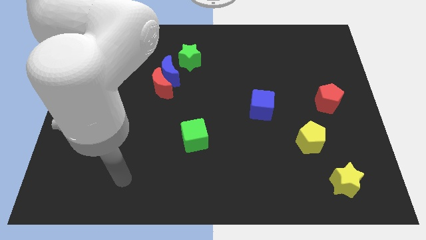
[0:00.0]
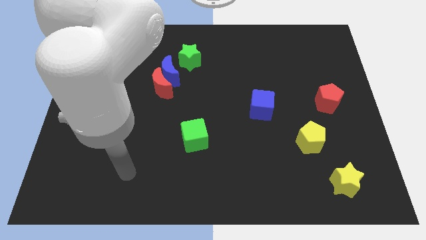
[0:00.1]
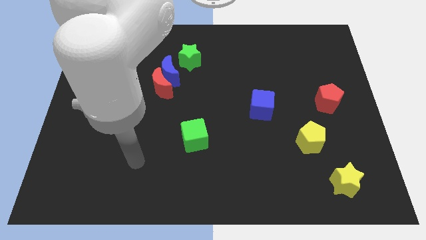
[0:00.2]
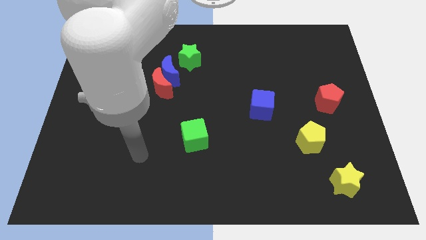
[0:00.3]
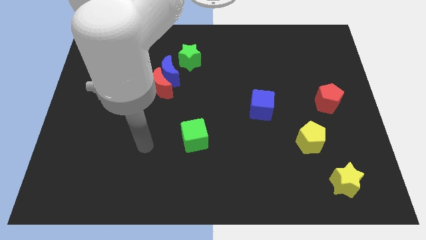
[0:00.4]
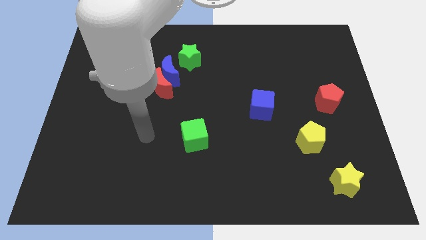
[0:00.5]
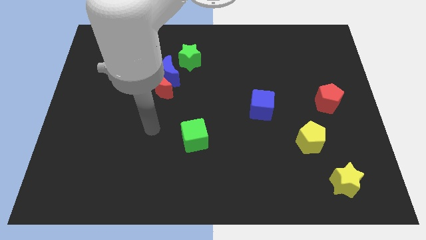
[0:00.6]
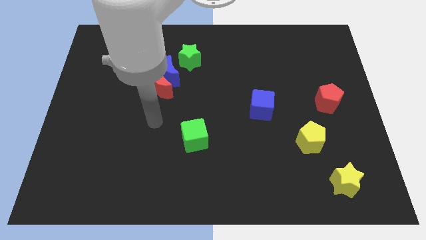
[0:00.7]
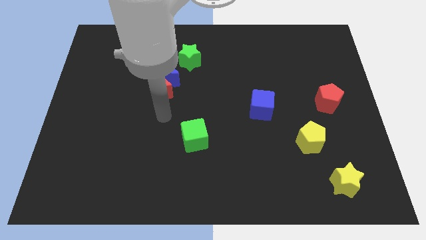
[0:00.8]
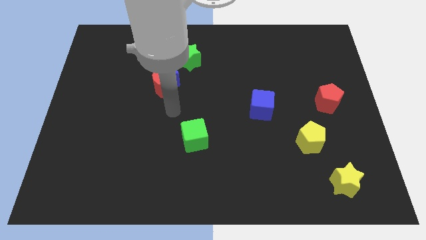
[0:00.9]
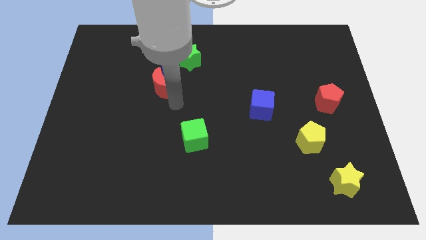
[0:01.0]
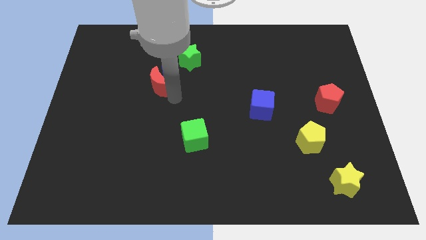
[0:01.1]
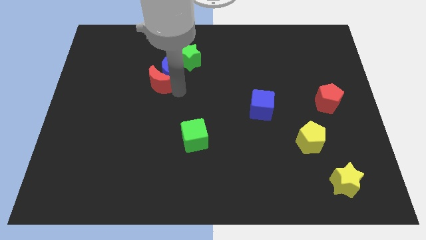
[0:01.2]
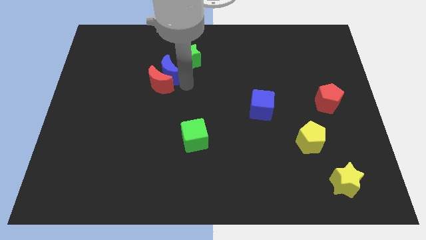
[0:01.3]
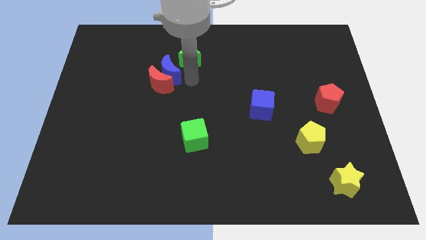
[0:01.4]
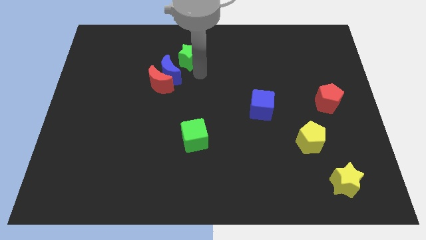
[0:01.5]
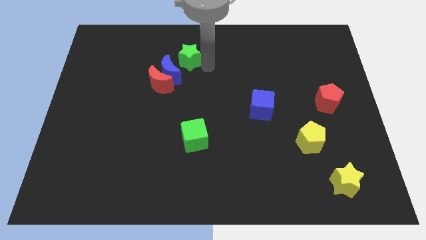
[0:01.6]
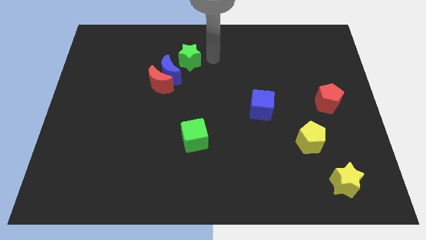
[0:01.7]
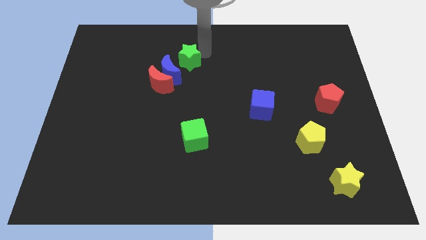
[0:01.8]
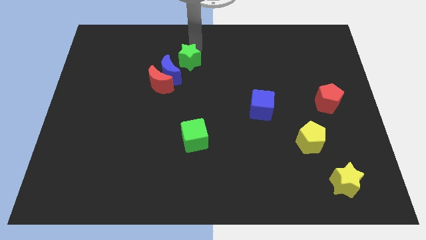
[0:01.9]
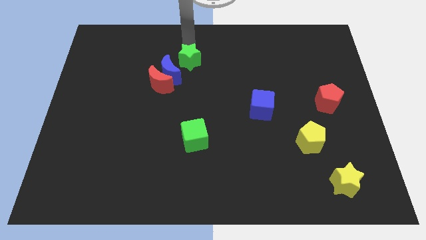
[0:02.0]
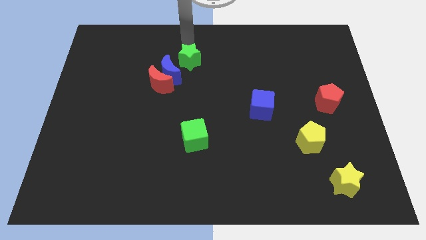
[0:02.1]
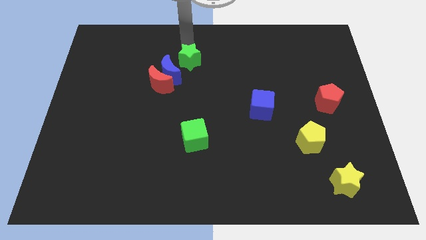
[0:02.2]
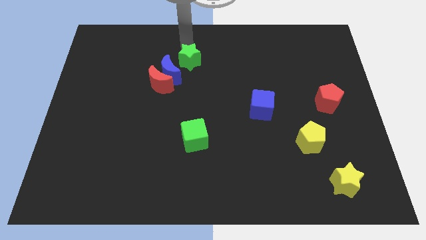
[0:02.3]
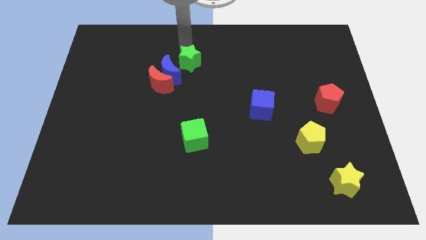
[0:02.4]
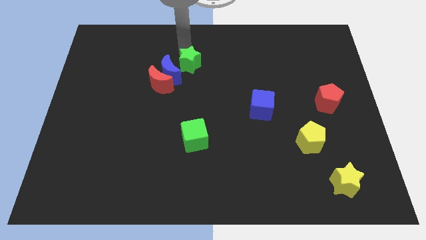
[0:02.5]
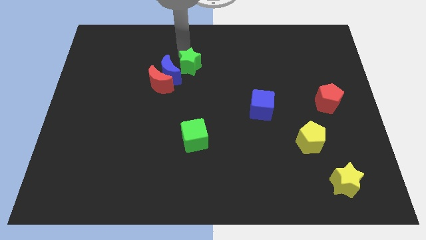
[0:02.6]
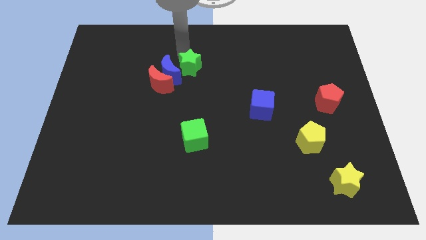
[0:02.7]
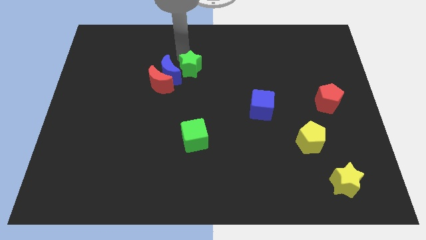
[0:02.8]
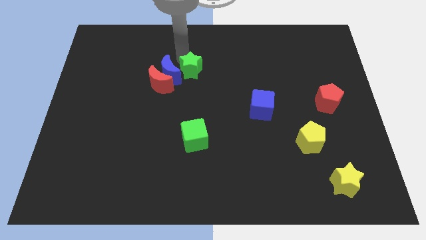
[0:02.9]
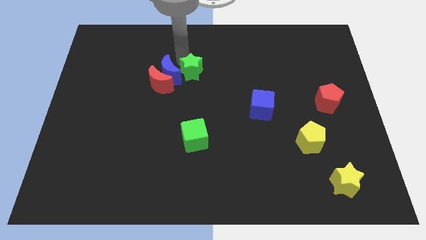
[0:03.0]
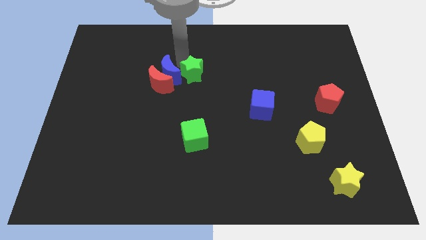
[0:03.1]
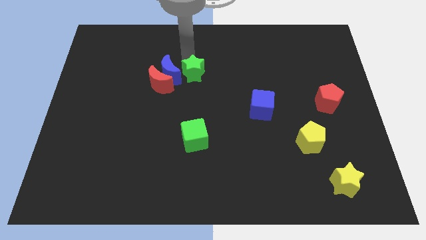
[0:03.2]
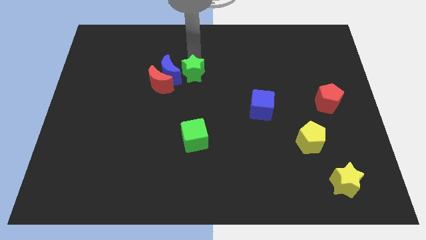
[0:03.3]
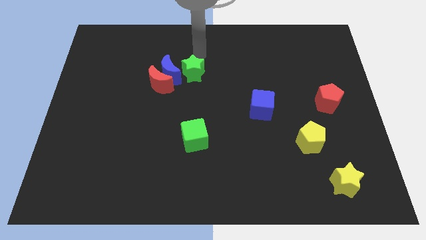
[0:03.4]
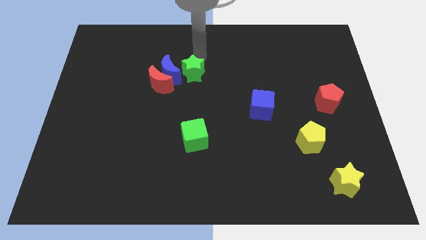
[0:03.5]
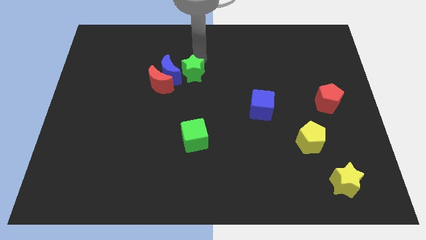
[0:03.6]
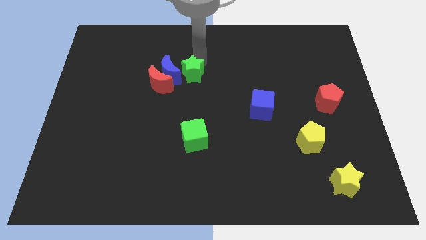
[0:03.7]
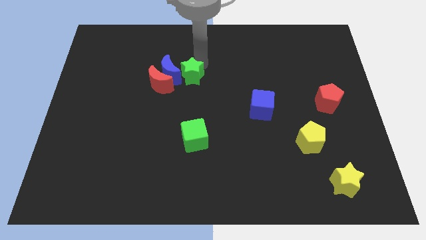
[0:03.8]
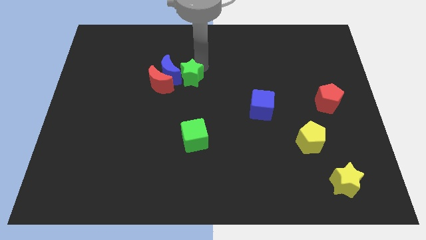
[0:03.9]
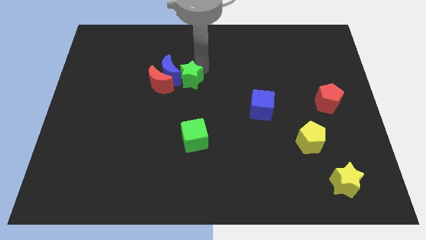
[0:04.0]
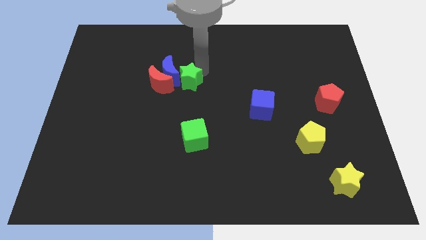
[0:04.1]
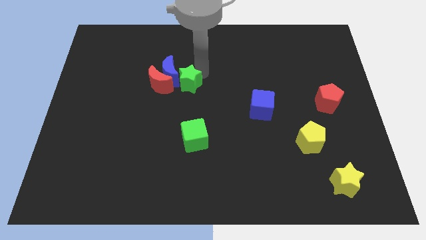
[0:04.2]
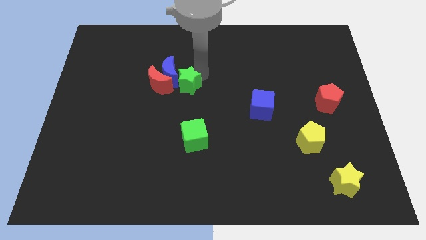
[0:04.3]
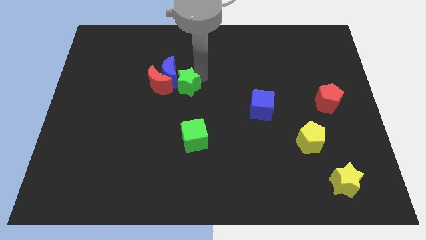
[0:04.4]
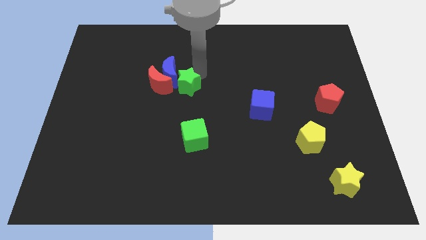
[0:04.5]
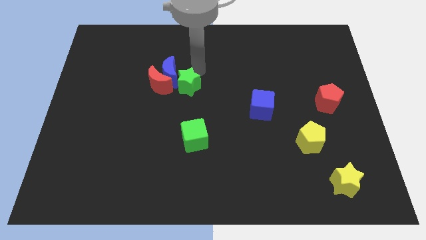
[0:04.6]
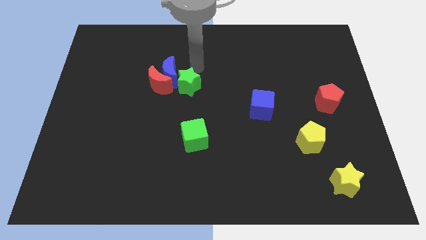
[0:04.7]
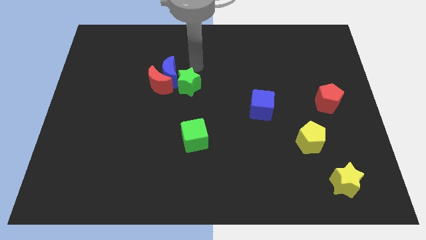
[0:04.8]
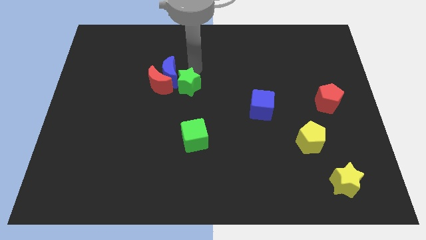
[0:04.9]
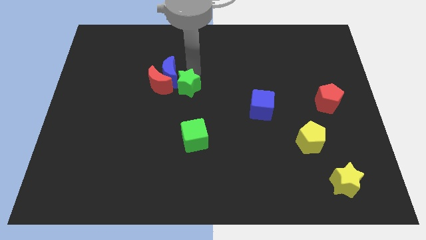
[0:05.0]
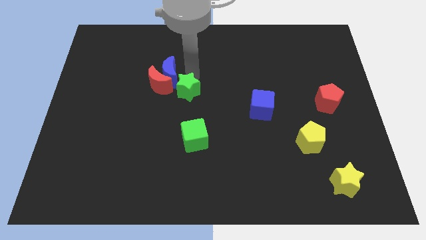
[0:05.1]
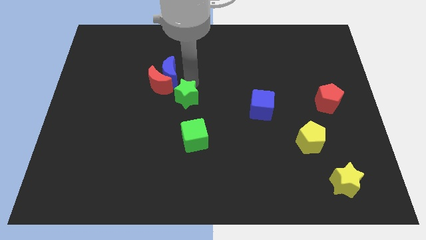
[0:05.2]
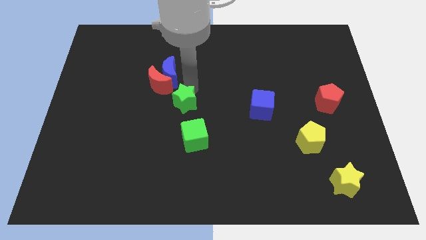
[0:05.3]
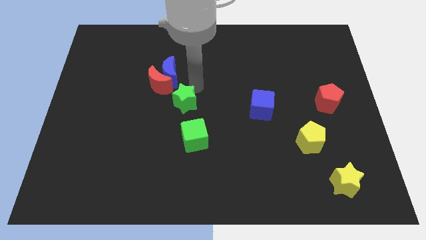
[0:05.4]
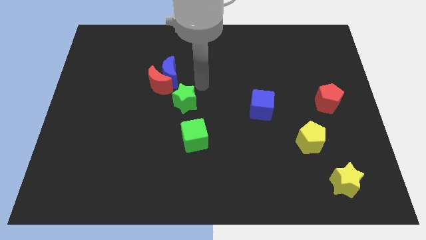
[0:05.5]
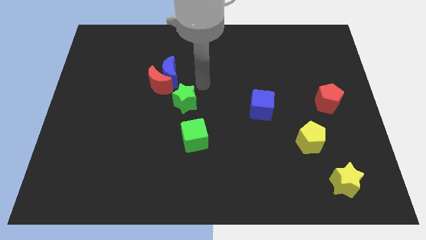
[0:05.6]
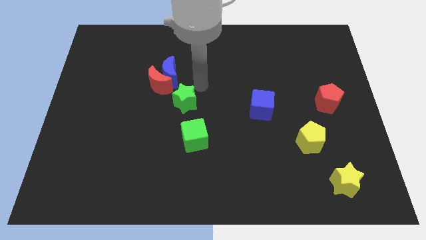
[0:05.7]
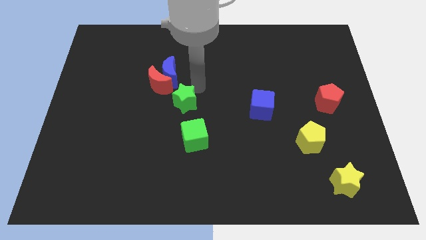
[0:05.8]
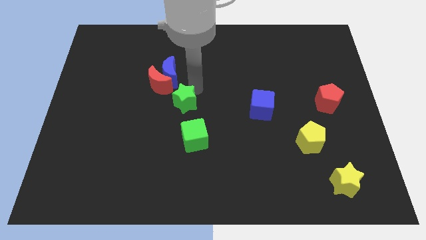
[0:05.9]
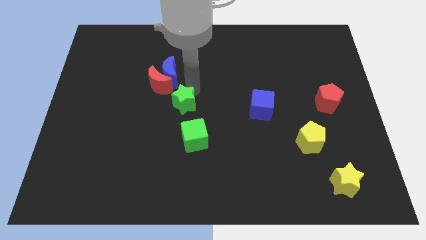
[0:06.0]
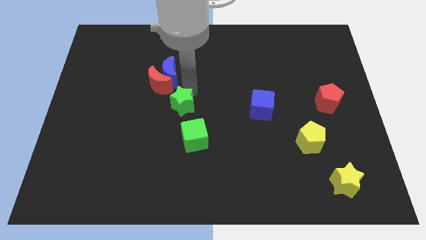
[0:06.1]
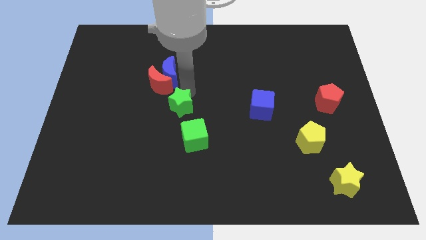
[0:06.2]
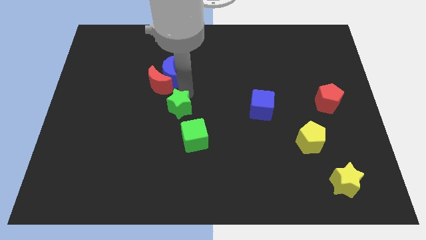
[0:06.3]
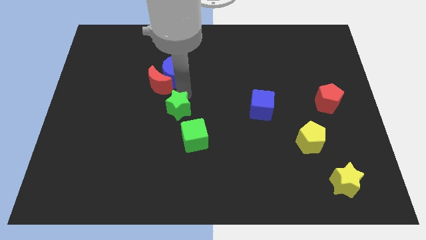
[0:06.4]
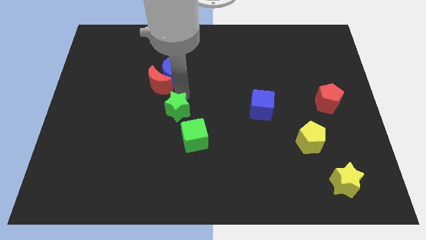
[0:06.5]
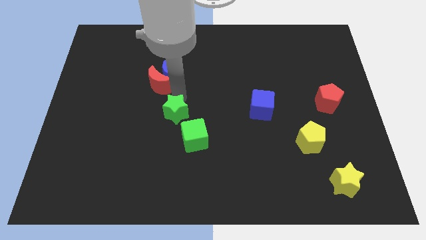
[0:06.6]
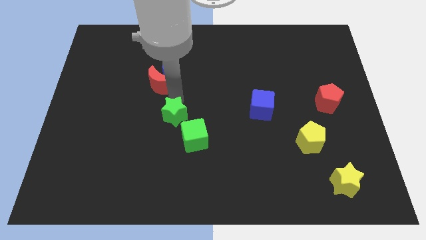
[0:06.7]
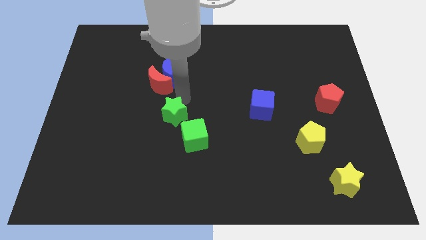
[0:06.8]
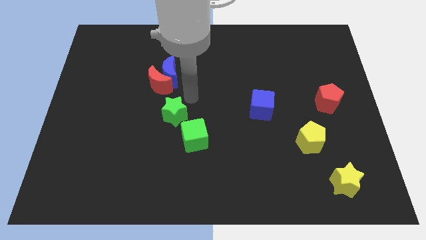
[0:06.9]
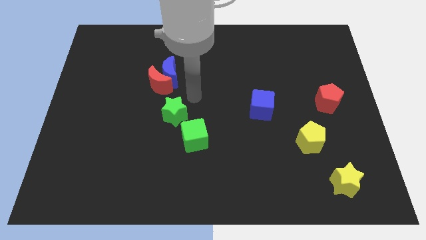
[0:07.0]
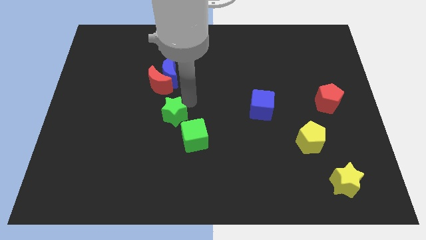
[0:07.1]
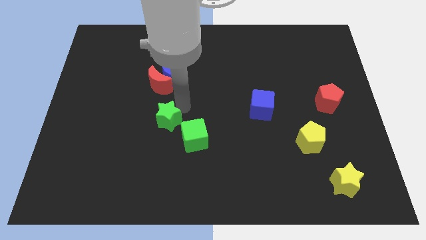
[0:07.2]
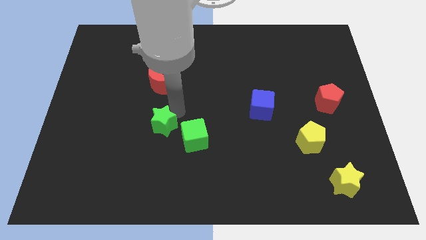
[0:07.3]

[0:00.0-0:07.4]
move the green star to the left side of the green cube
